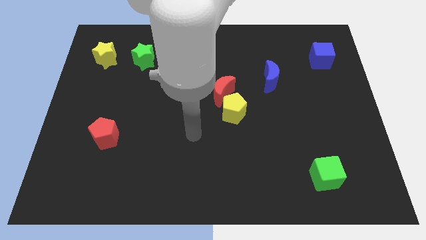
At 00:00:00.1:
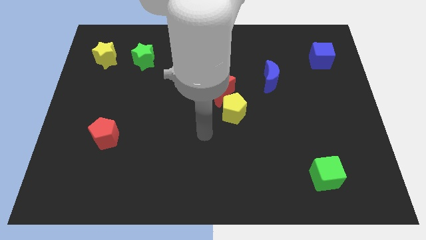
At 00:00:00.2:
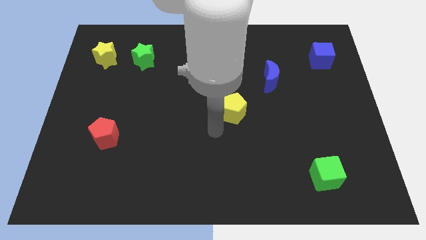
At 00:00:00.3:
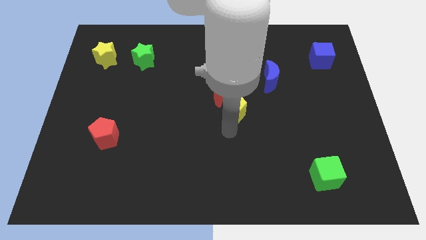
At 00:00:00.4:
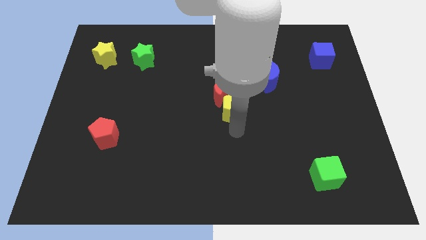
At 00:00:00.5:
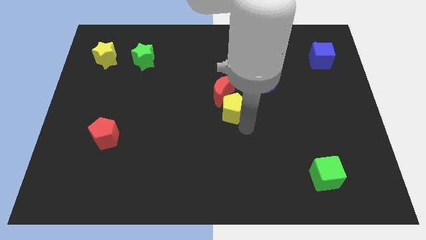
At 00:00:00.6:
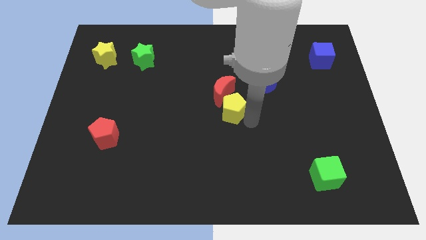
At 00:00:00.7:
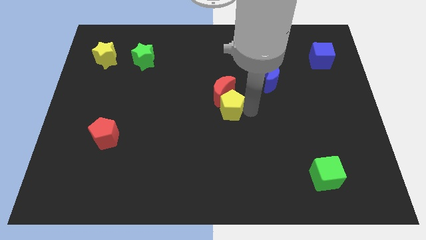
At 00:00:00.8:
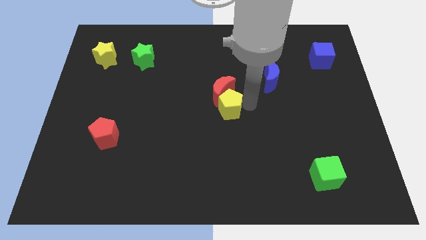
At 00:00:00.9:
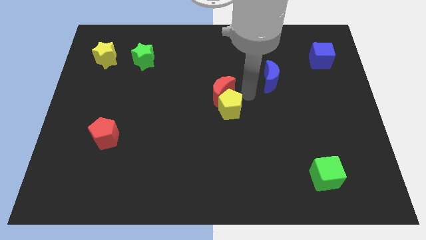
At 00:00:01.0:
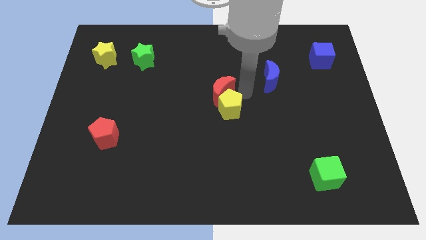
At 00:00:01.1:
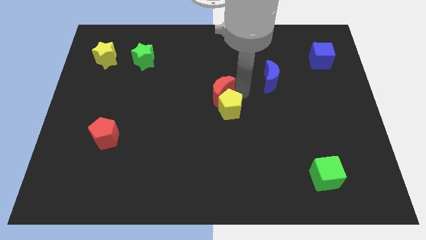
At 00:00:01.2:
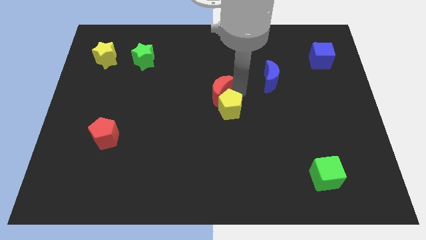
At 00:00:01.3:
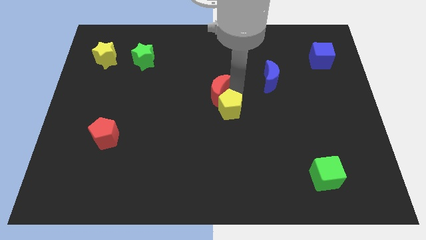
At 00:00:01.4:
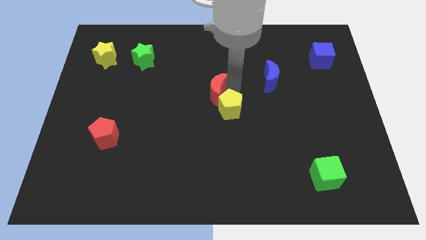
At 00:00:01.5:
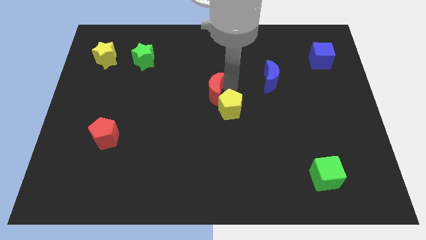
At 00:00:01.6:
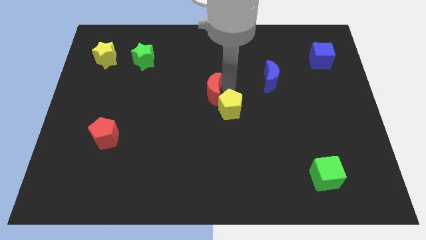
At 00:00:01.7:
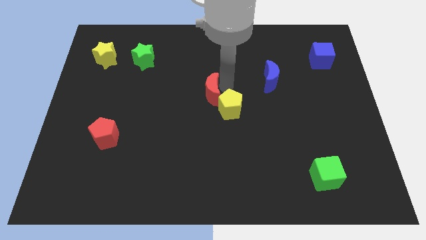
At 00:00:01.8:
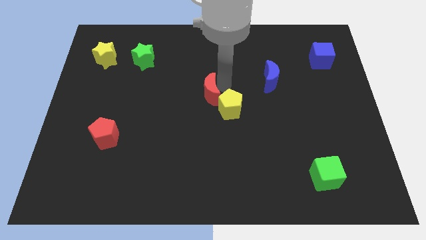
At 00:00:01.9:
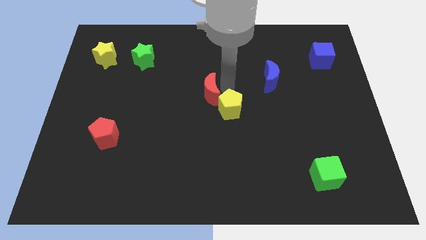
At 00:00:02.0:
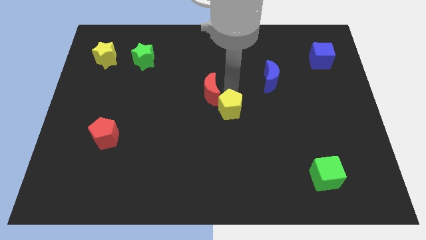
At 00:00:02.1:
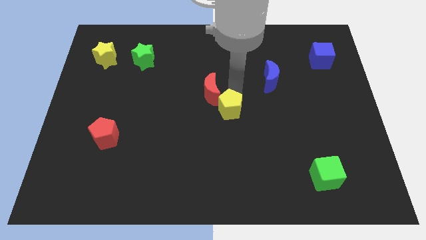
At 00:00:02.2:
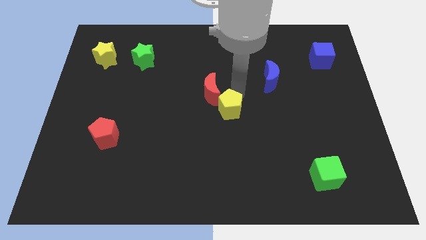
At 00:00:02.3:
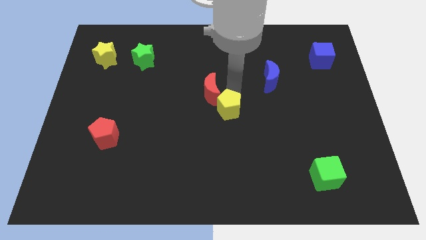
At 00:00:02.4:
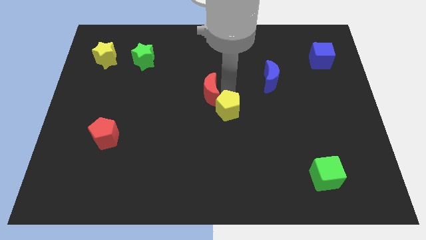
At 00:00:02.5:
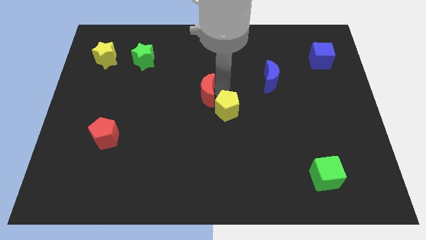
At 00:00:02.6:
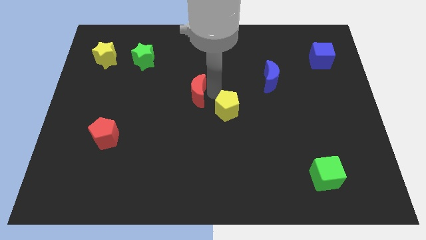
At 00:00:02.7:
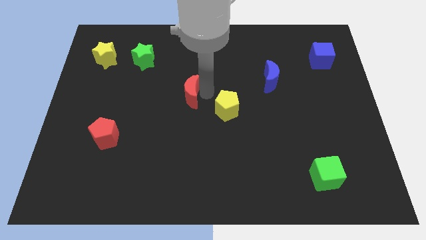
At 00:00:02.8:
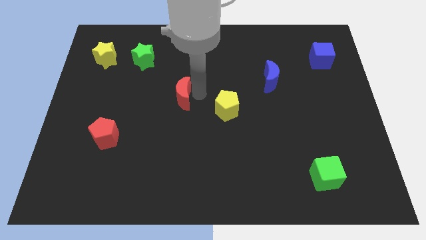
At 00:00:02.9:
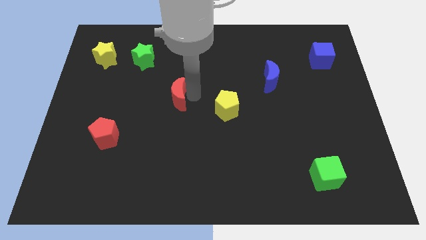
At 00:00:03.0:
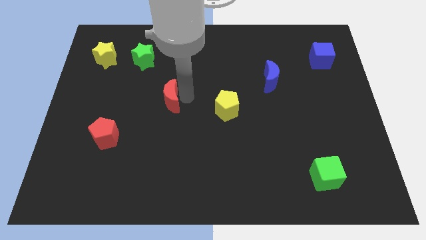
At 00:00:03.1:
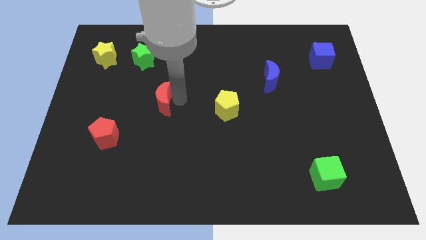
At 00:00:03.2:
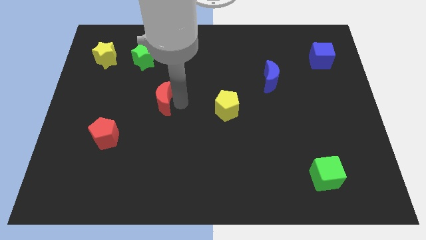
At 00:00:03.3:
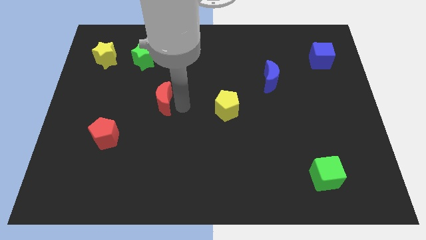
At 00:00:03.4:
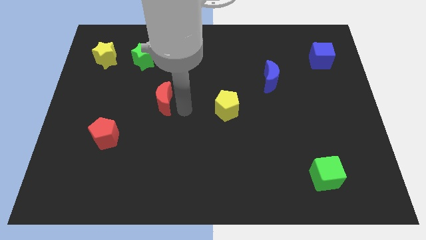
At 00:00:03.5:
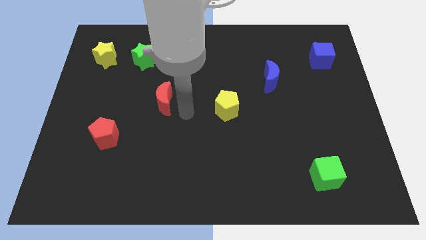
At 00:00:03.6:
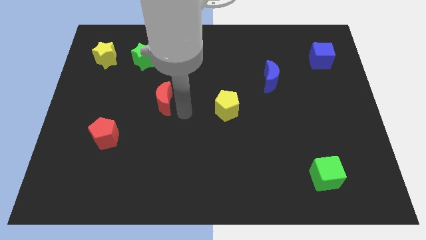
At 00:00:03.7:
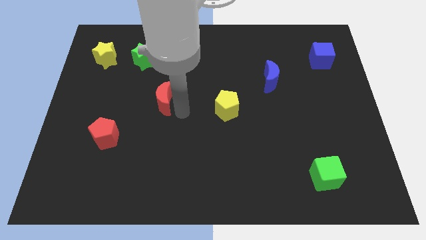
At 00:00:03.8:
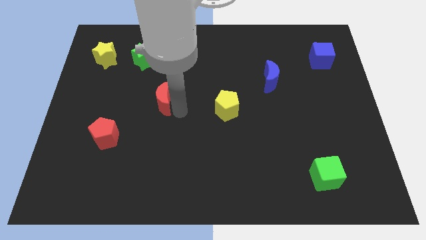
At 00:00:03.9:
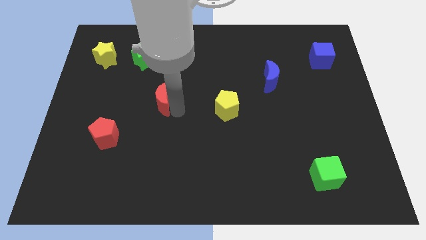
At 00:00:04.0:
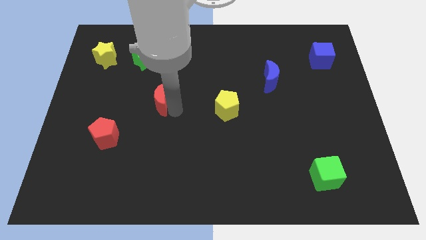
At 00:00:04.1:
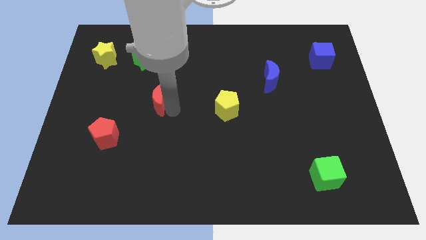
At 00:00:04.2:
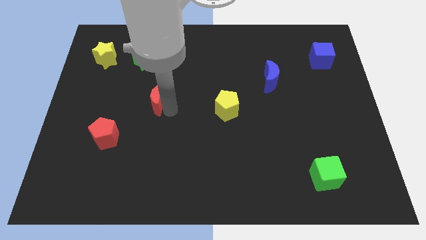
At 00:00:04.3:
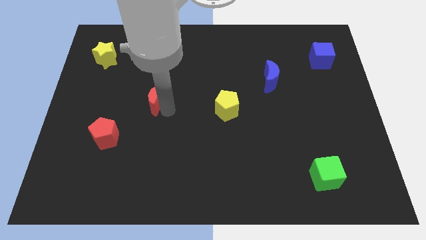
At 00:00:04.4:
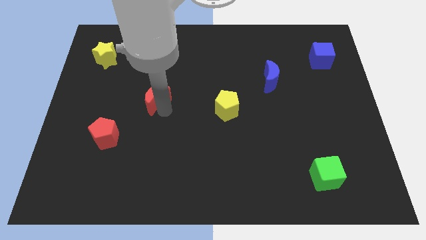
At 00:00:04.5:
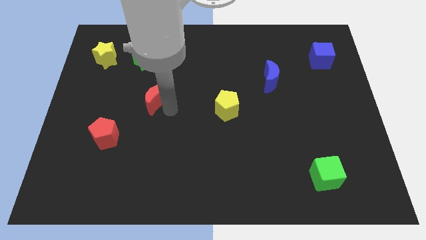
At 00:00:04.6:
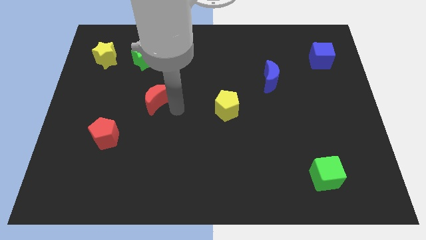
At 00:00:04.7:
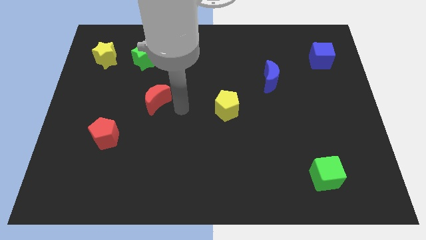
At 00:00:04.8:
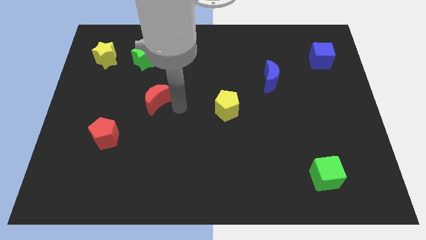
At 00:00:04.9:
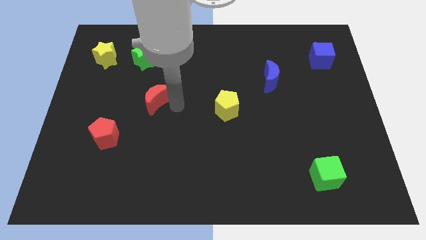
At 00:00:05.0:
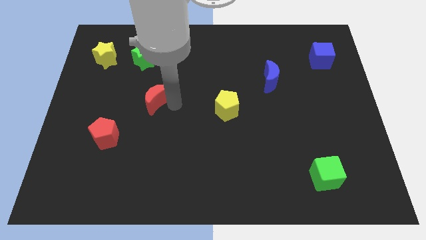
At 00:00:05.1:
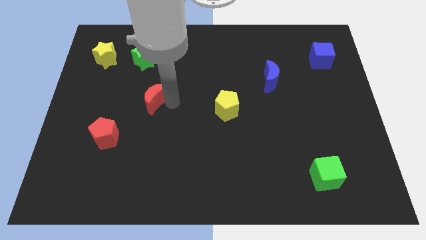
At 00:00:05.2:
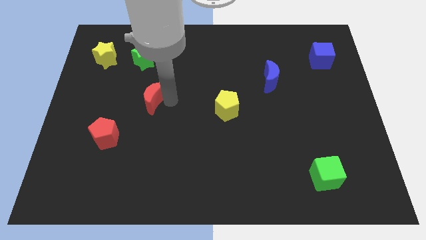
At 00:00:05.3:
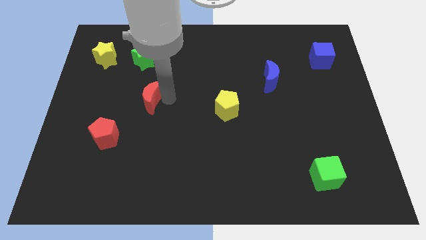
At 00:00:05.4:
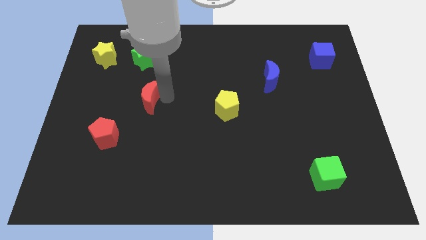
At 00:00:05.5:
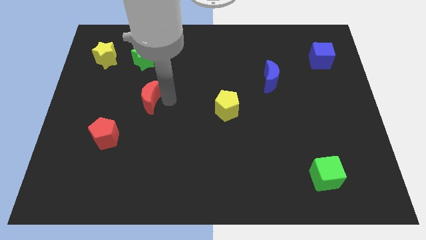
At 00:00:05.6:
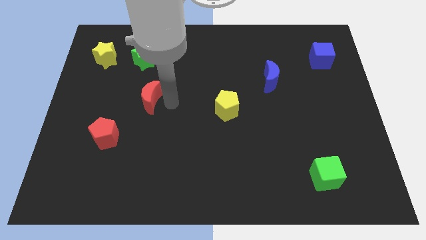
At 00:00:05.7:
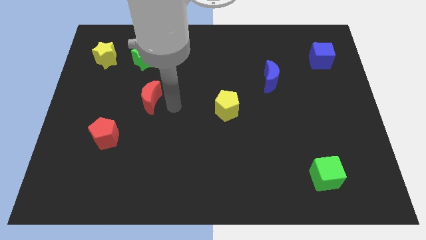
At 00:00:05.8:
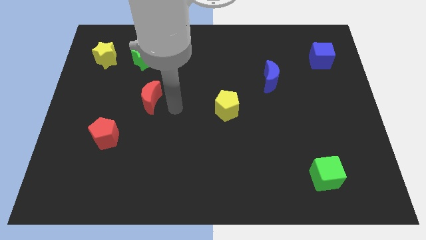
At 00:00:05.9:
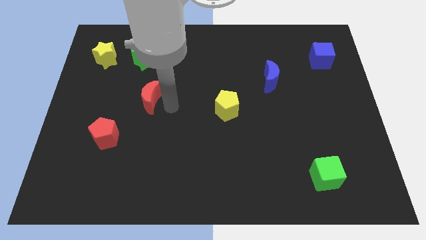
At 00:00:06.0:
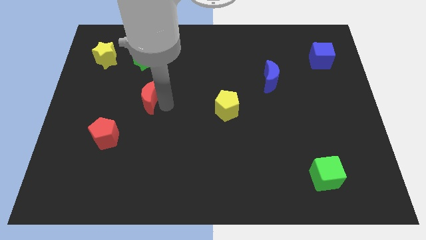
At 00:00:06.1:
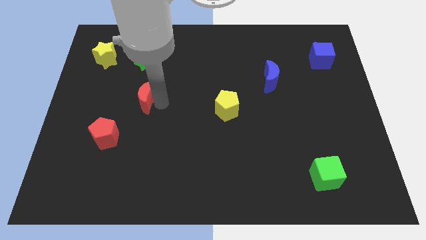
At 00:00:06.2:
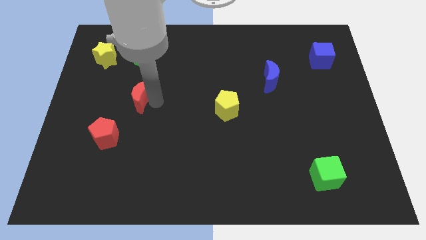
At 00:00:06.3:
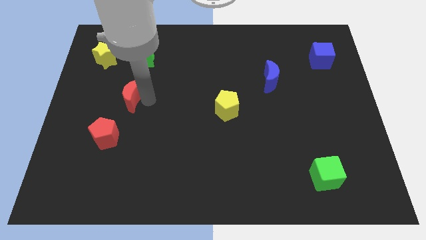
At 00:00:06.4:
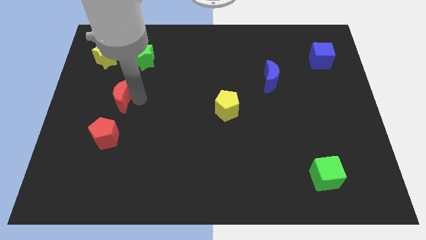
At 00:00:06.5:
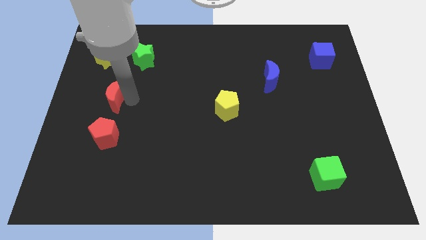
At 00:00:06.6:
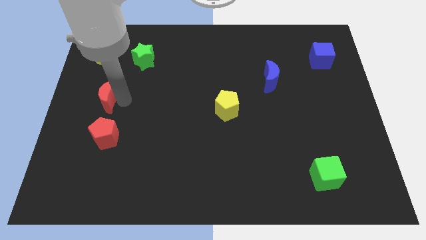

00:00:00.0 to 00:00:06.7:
move the red moon below the yellow star
